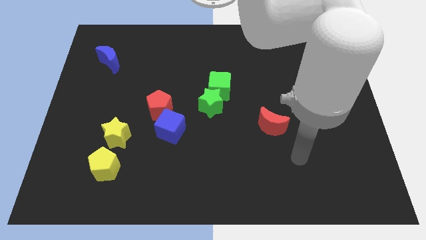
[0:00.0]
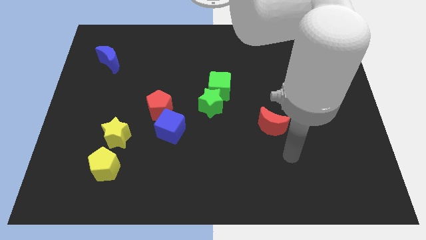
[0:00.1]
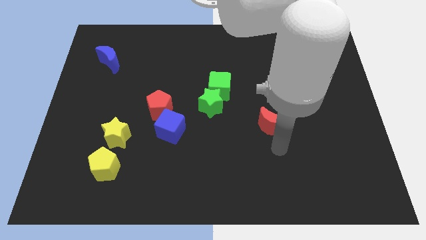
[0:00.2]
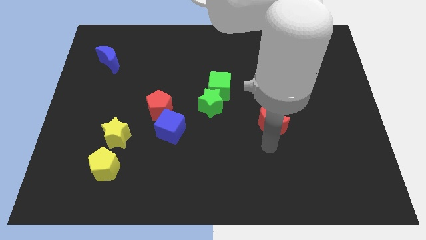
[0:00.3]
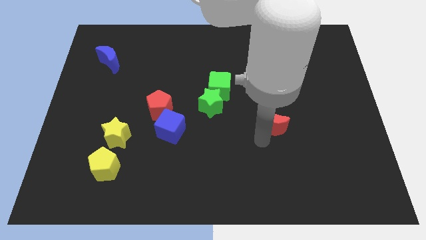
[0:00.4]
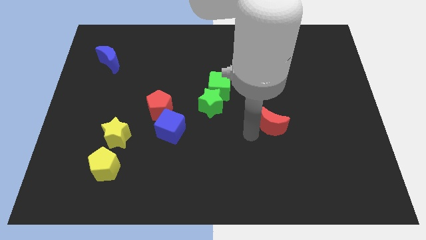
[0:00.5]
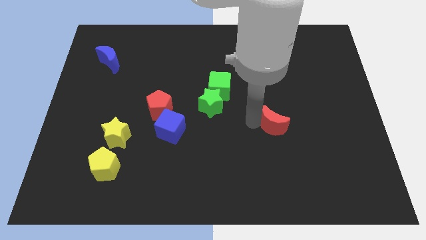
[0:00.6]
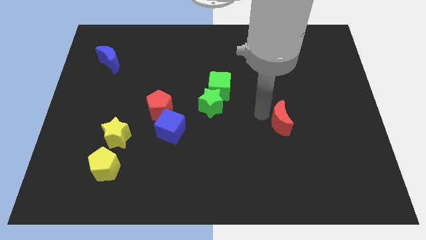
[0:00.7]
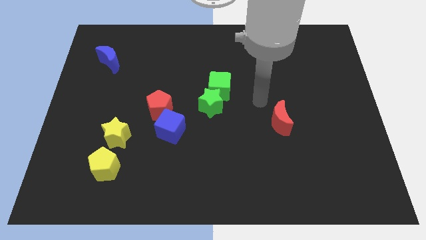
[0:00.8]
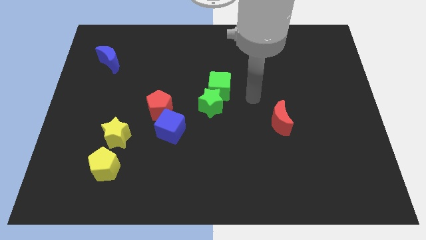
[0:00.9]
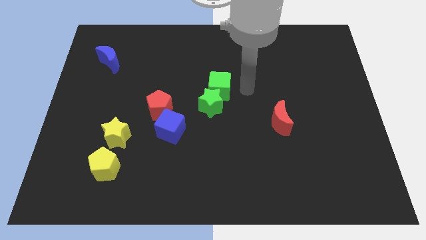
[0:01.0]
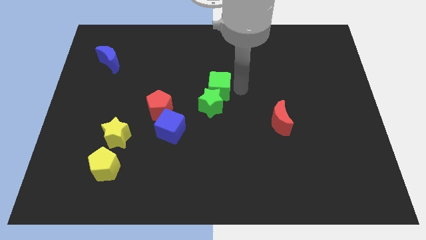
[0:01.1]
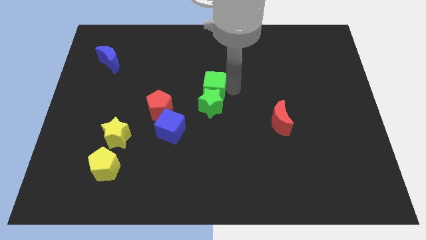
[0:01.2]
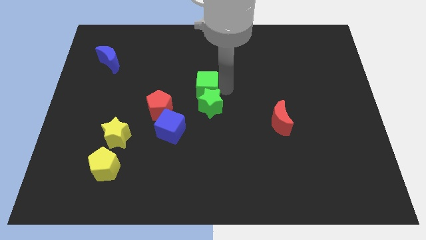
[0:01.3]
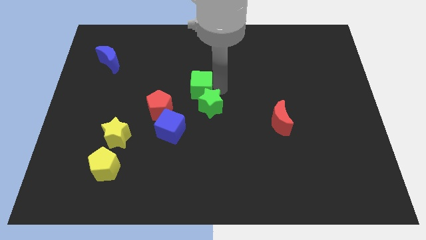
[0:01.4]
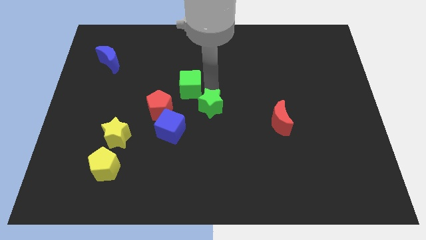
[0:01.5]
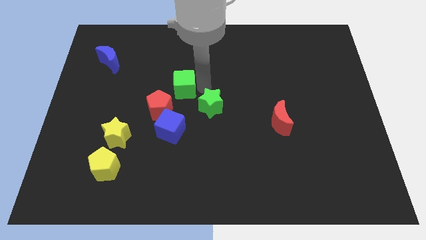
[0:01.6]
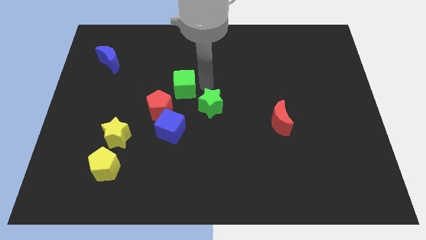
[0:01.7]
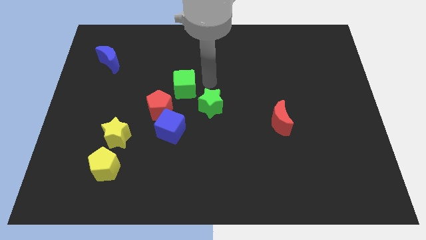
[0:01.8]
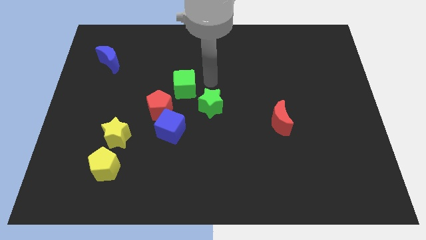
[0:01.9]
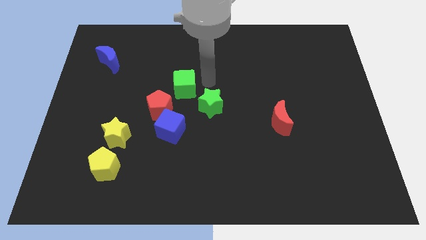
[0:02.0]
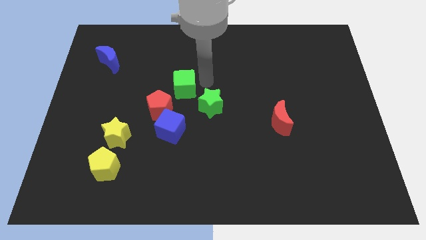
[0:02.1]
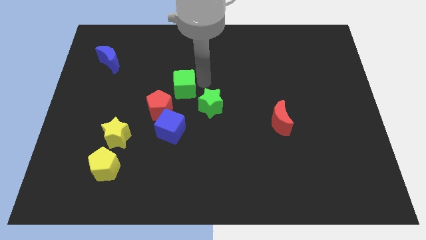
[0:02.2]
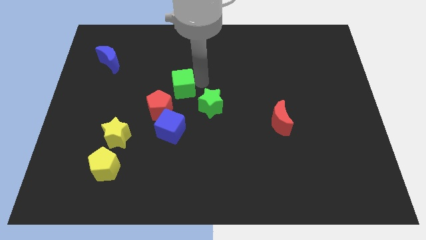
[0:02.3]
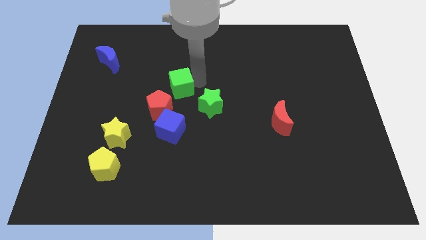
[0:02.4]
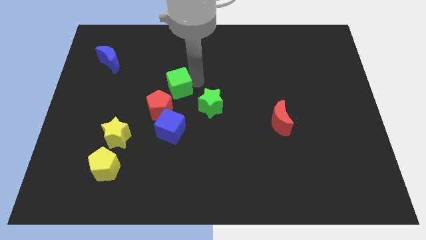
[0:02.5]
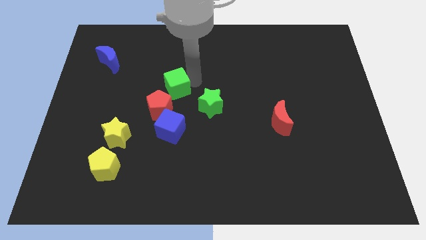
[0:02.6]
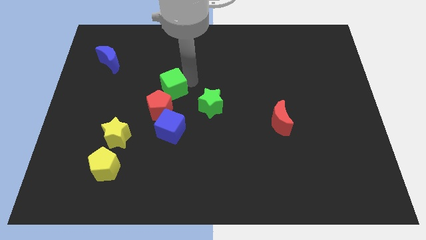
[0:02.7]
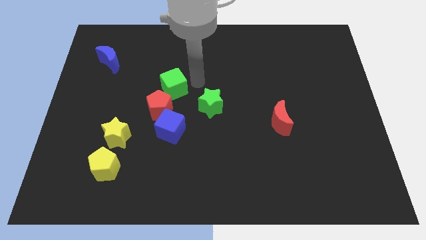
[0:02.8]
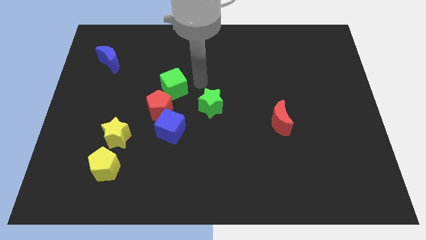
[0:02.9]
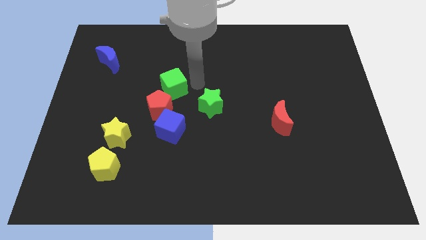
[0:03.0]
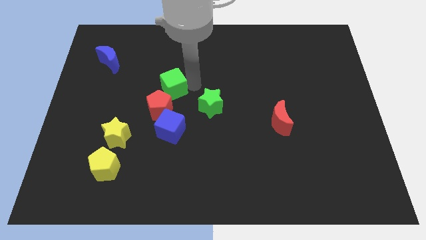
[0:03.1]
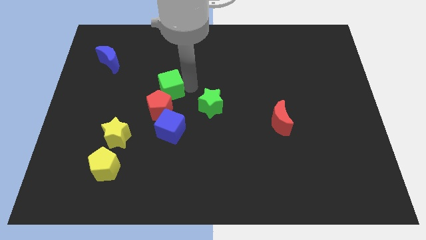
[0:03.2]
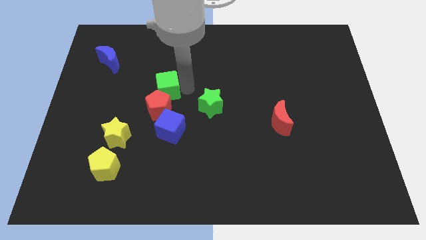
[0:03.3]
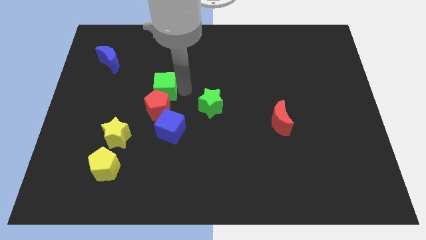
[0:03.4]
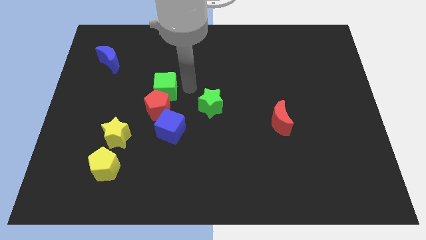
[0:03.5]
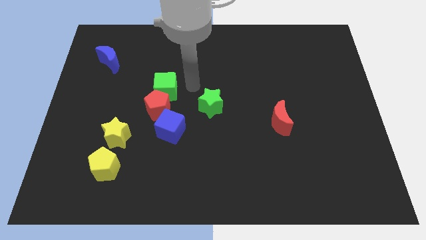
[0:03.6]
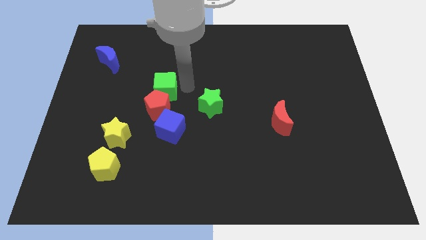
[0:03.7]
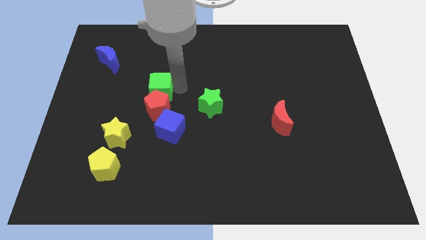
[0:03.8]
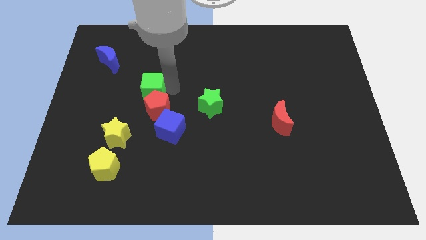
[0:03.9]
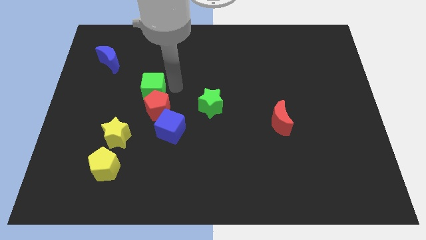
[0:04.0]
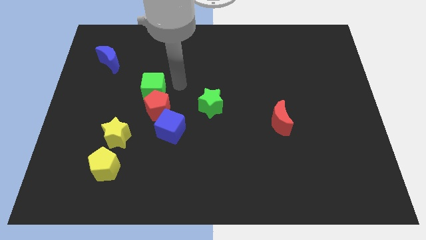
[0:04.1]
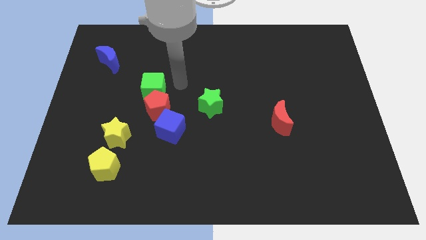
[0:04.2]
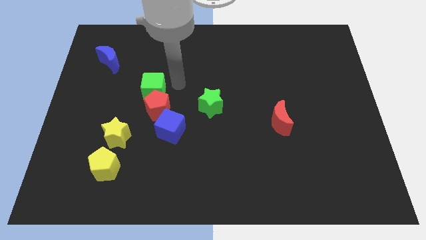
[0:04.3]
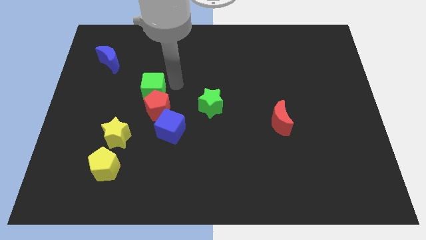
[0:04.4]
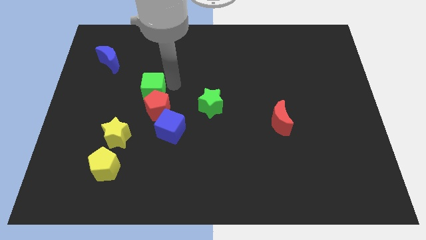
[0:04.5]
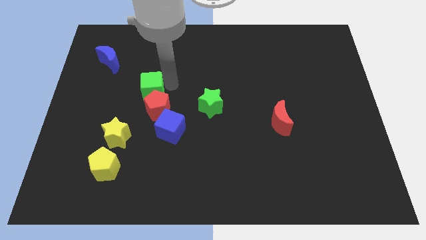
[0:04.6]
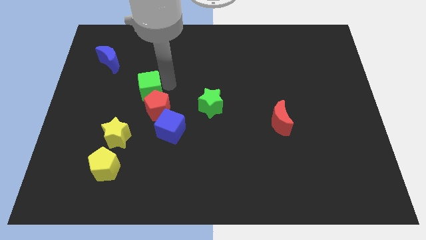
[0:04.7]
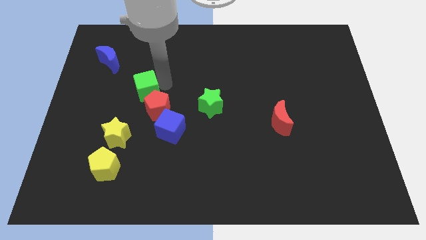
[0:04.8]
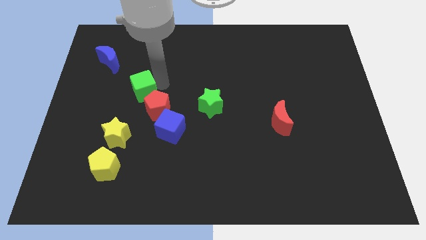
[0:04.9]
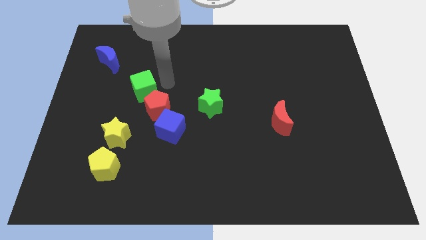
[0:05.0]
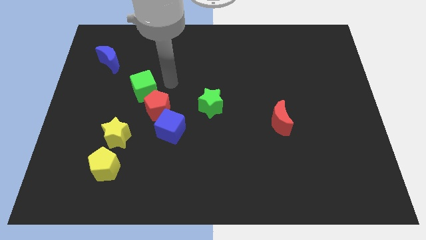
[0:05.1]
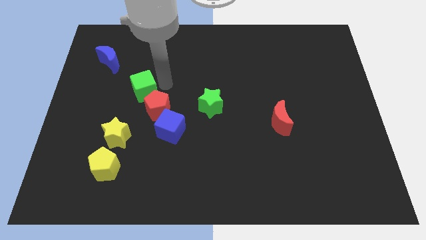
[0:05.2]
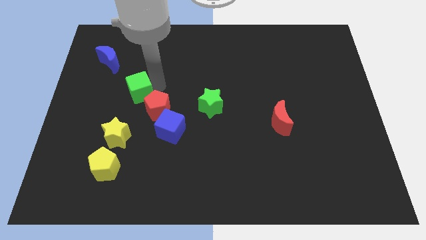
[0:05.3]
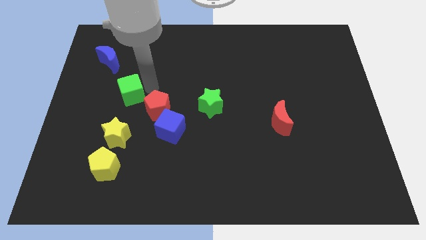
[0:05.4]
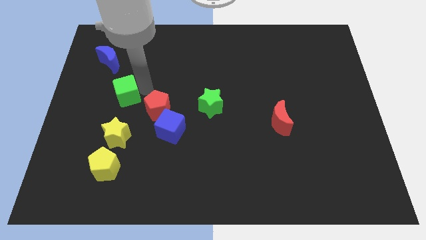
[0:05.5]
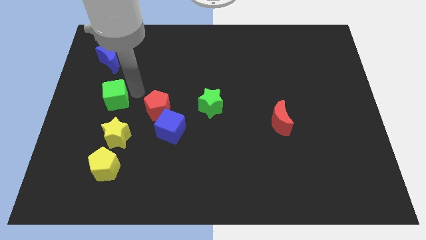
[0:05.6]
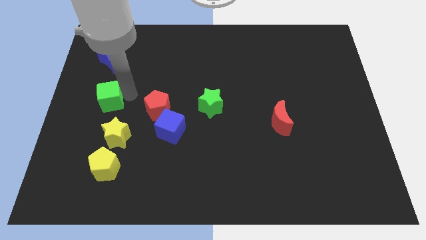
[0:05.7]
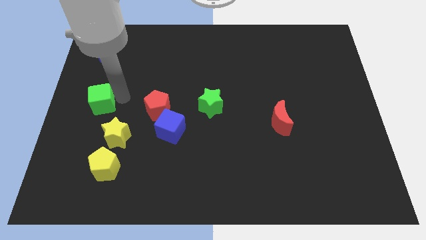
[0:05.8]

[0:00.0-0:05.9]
push the green cube to the left side of the board
